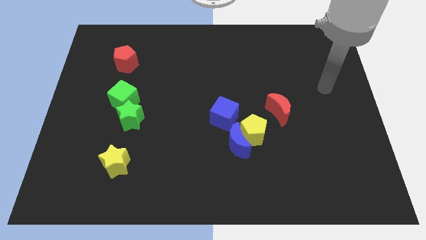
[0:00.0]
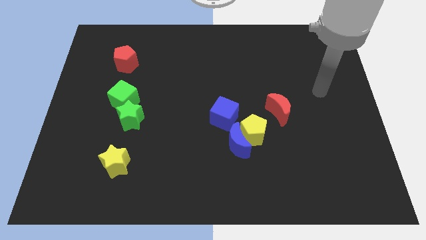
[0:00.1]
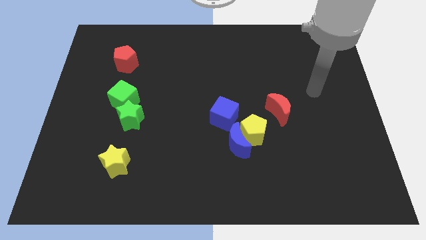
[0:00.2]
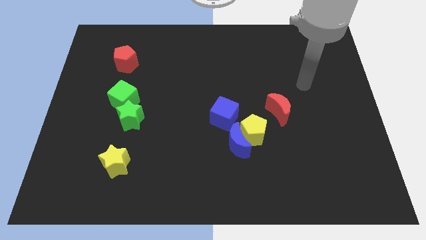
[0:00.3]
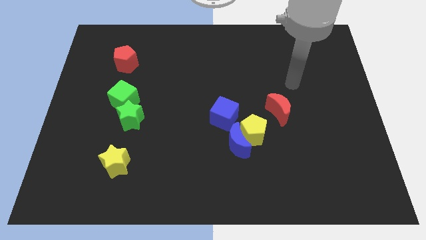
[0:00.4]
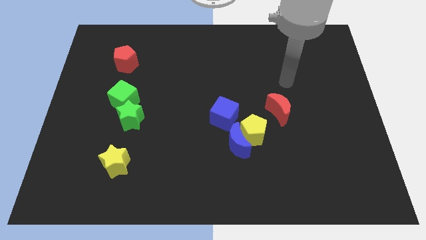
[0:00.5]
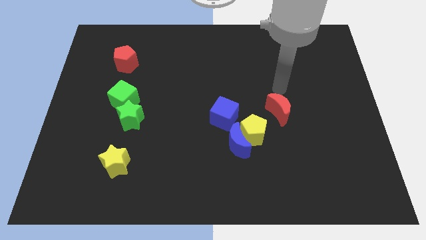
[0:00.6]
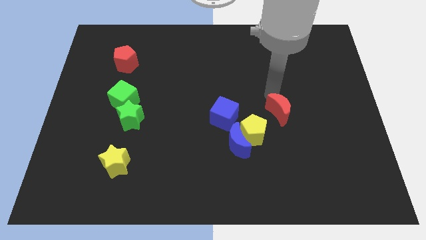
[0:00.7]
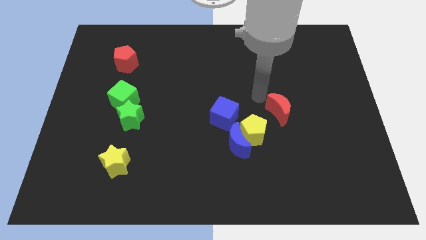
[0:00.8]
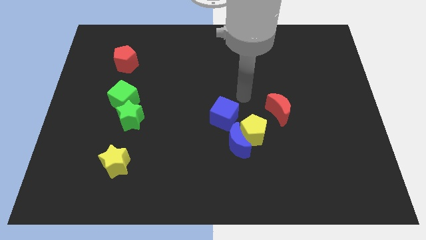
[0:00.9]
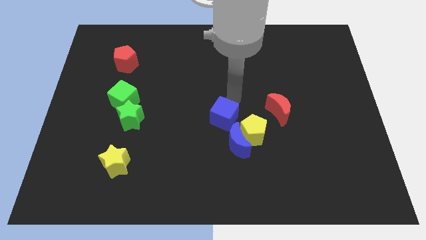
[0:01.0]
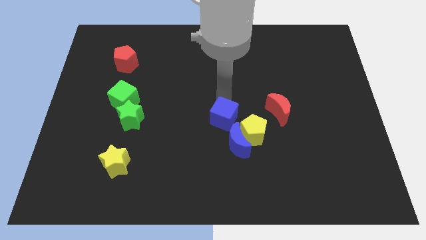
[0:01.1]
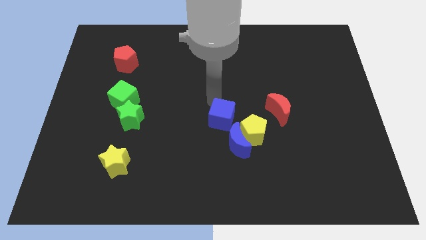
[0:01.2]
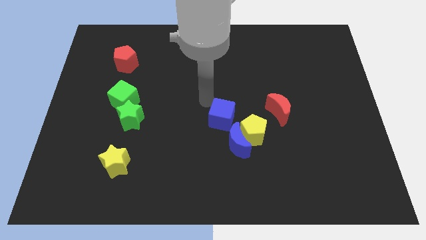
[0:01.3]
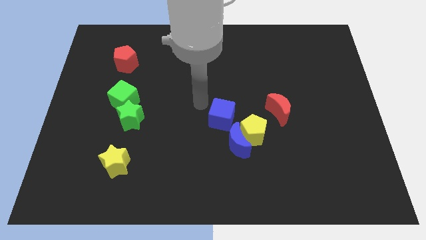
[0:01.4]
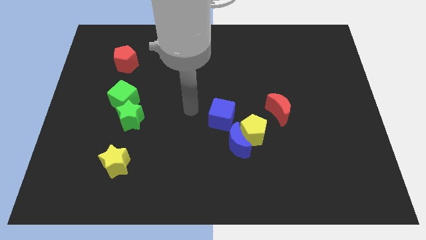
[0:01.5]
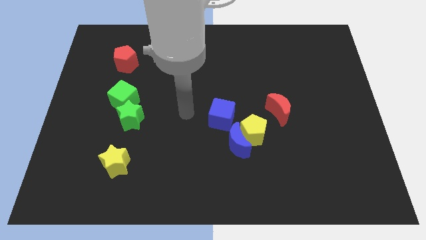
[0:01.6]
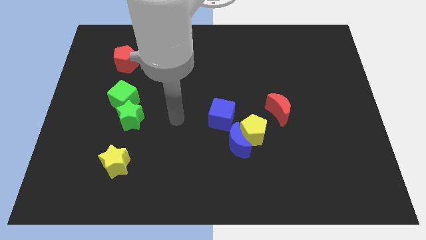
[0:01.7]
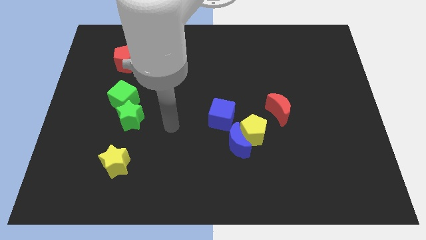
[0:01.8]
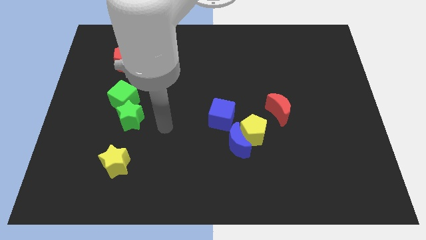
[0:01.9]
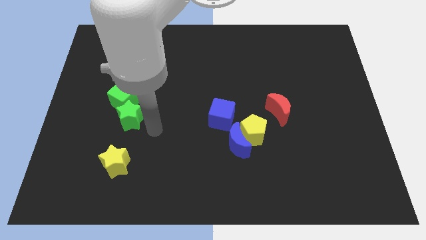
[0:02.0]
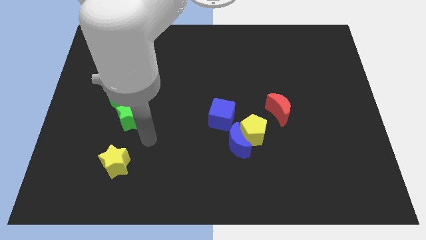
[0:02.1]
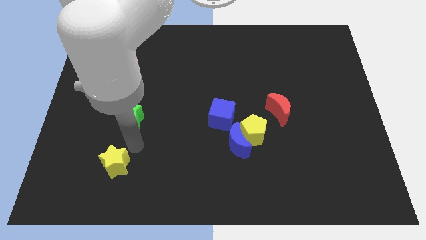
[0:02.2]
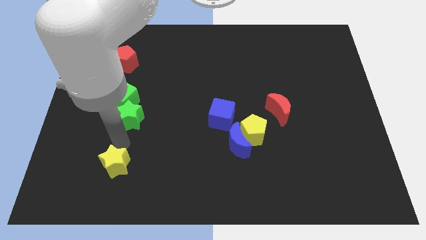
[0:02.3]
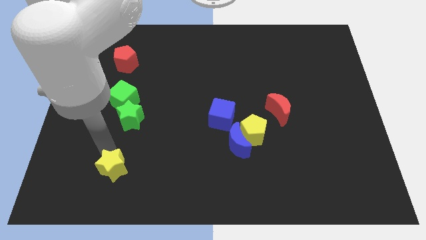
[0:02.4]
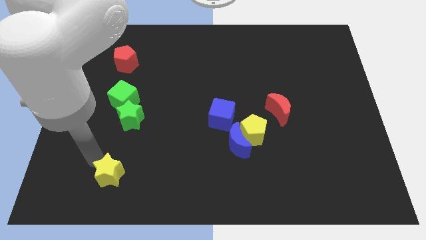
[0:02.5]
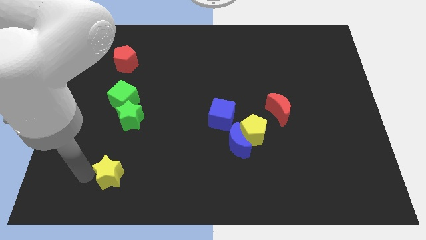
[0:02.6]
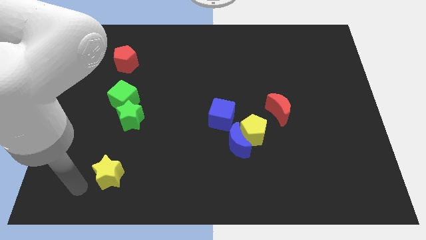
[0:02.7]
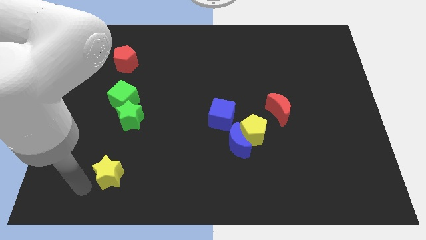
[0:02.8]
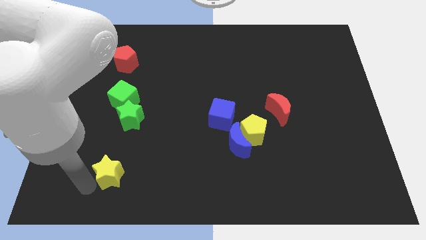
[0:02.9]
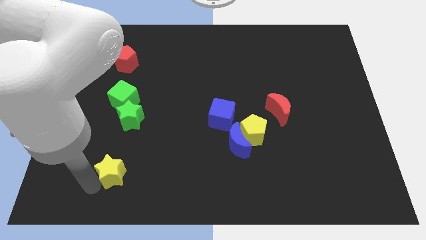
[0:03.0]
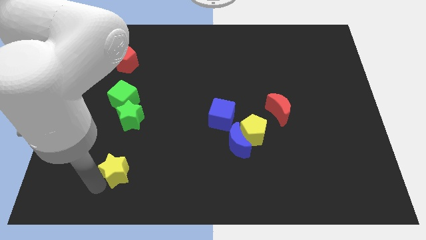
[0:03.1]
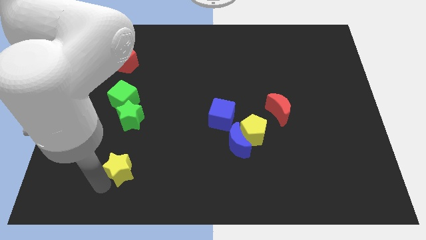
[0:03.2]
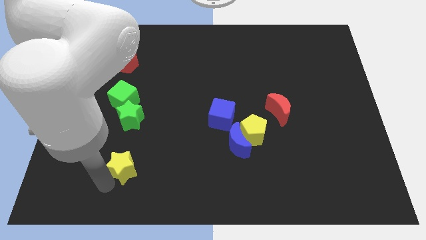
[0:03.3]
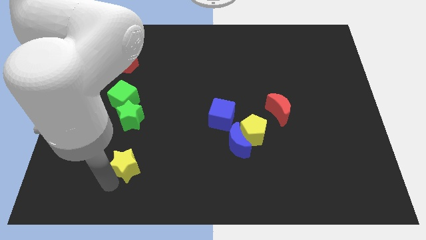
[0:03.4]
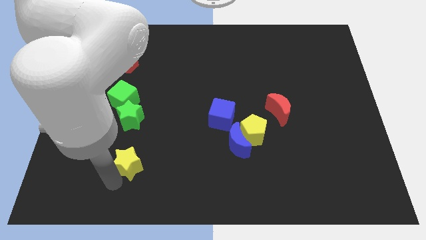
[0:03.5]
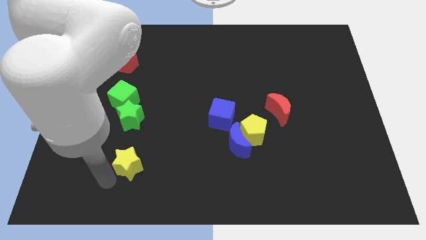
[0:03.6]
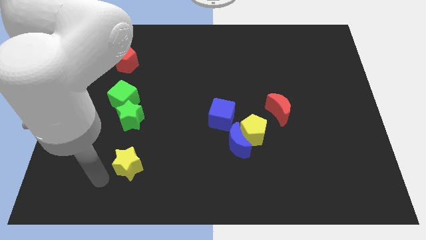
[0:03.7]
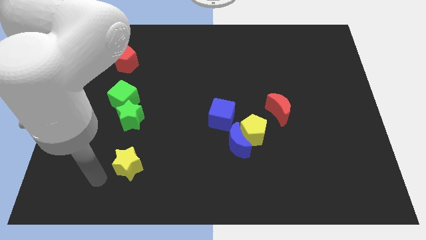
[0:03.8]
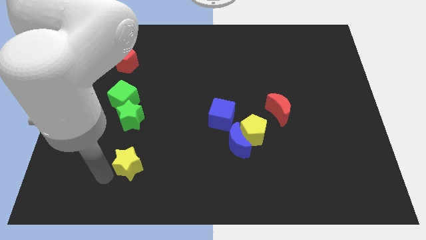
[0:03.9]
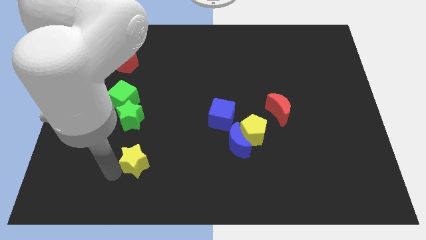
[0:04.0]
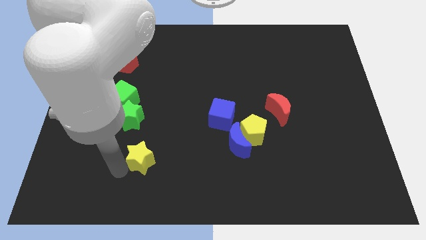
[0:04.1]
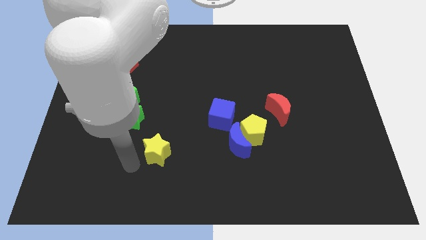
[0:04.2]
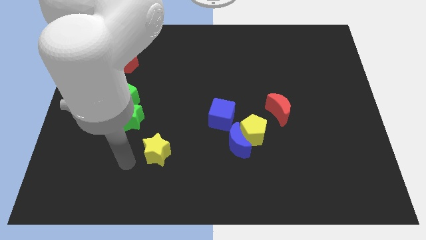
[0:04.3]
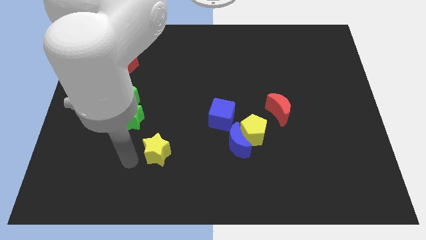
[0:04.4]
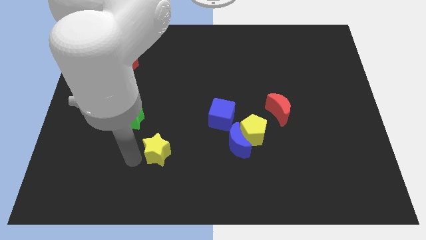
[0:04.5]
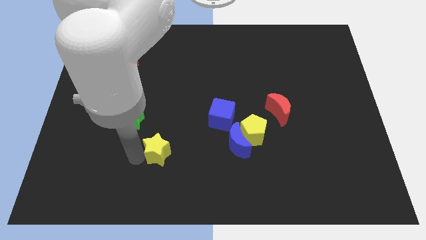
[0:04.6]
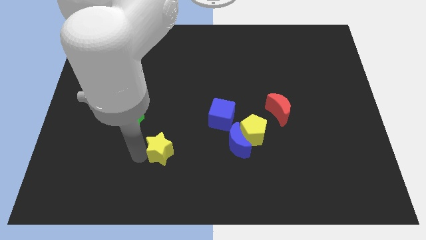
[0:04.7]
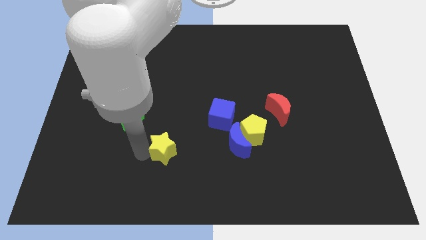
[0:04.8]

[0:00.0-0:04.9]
put the yellow star left of the blue moon

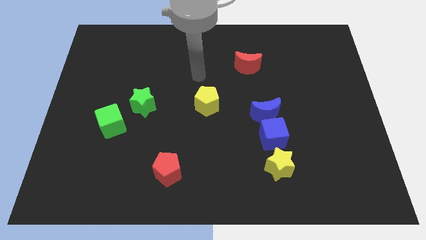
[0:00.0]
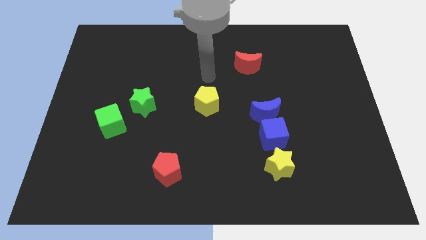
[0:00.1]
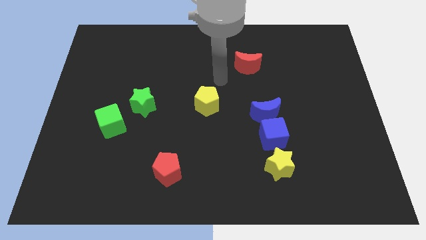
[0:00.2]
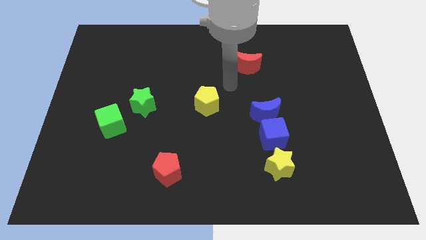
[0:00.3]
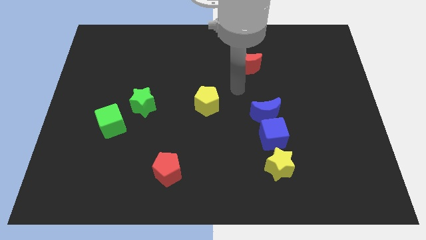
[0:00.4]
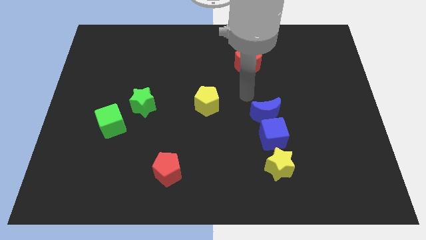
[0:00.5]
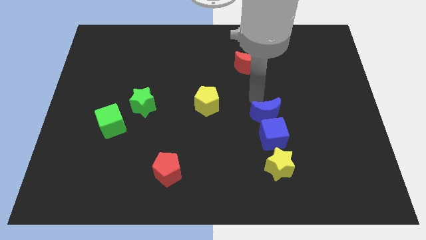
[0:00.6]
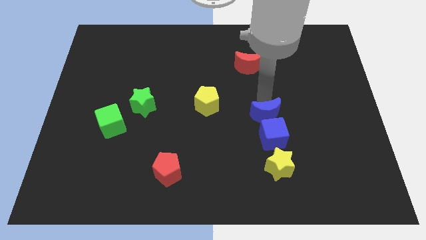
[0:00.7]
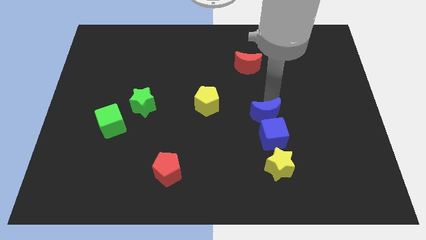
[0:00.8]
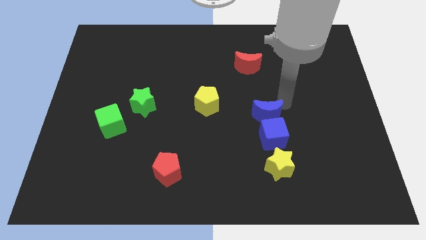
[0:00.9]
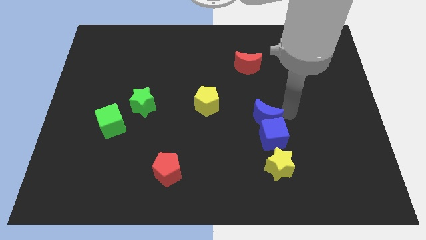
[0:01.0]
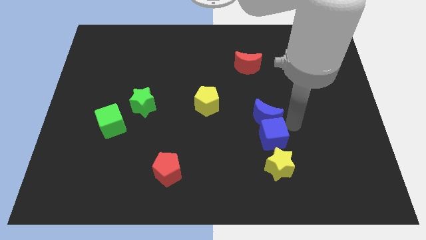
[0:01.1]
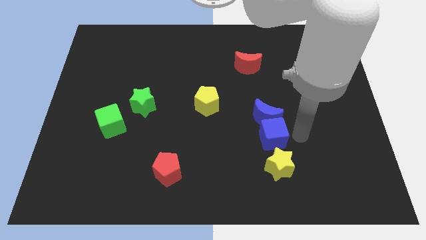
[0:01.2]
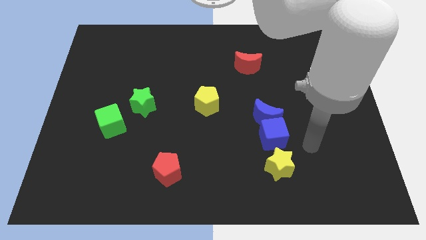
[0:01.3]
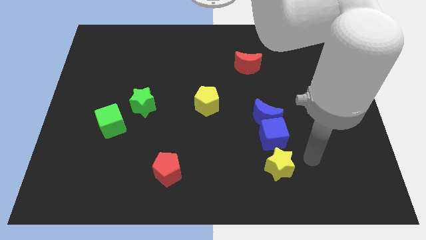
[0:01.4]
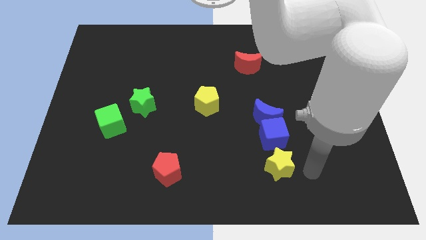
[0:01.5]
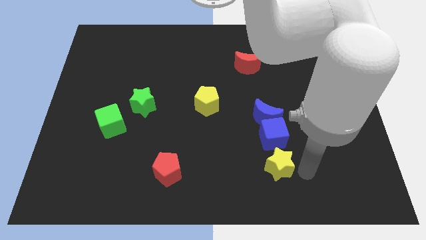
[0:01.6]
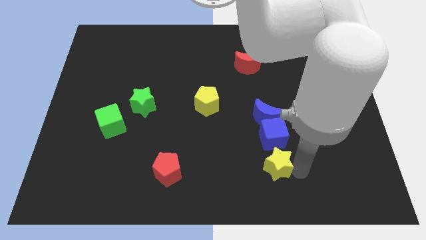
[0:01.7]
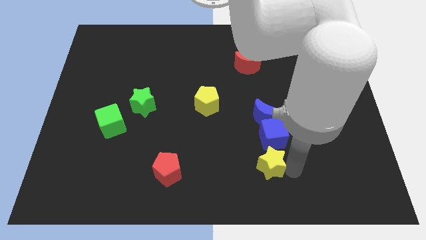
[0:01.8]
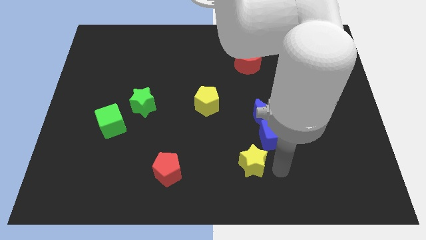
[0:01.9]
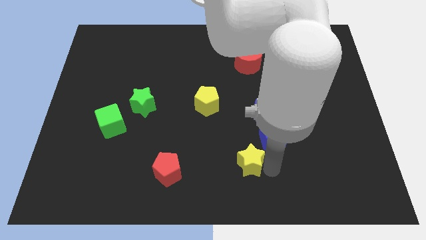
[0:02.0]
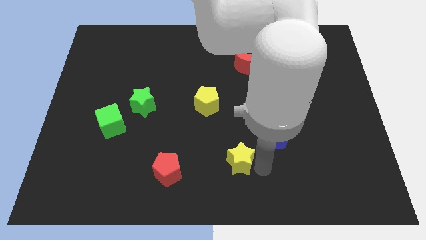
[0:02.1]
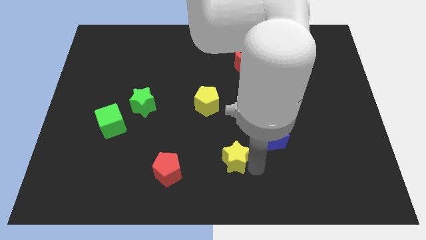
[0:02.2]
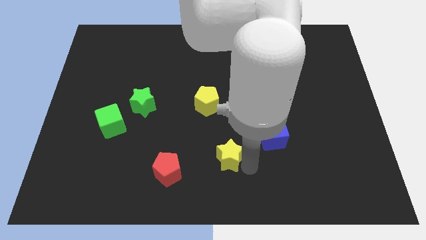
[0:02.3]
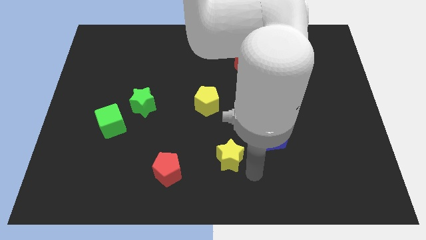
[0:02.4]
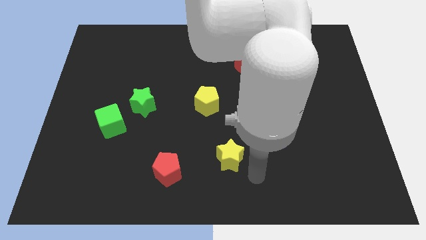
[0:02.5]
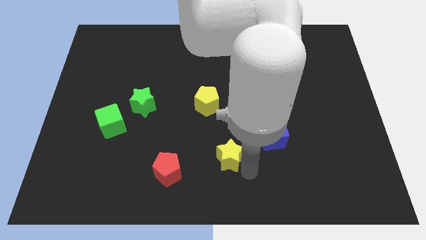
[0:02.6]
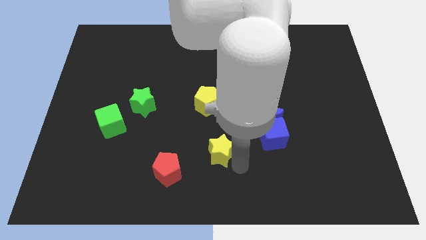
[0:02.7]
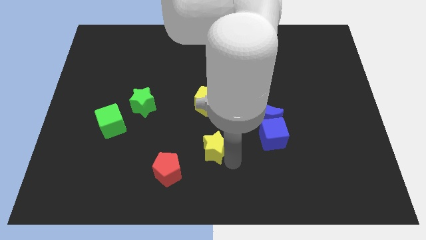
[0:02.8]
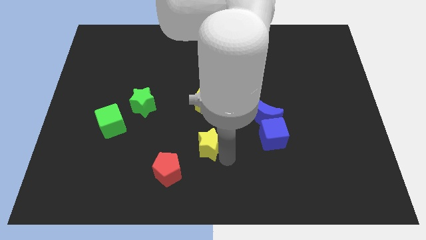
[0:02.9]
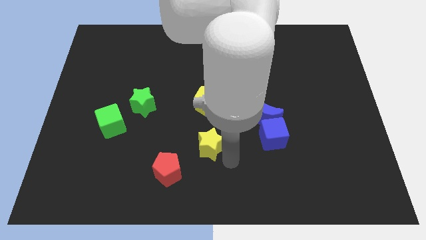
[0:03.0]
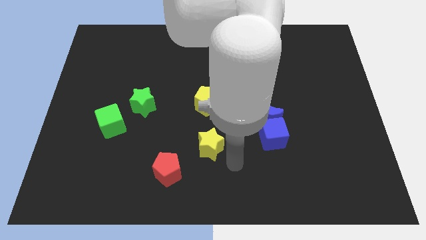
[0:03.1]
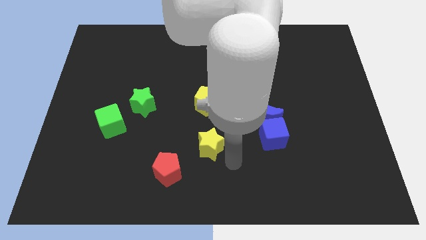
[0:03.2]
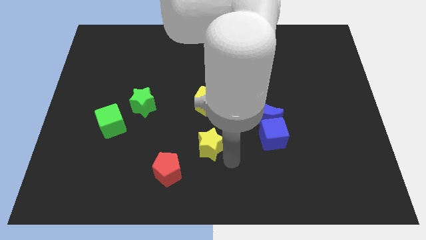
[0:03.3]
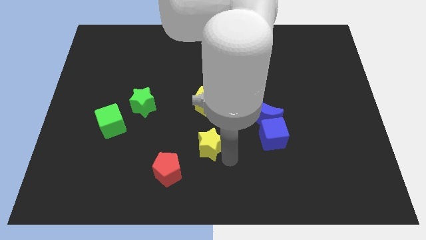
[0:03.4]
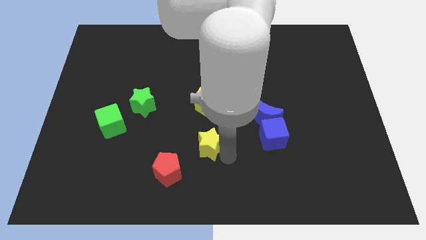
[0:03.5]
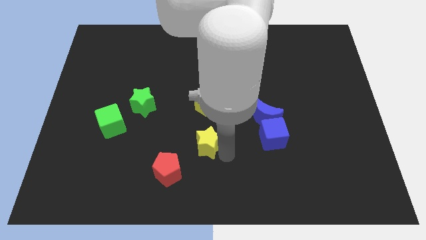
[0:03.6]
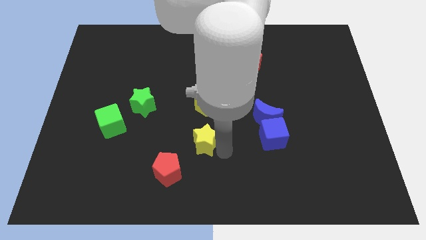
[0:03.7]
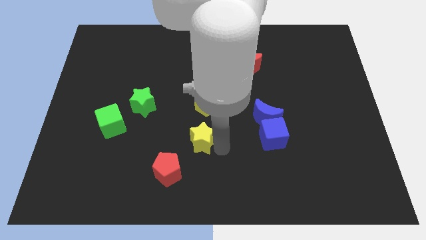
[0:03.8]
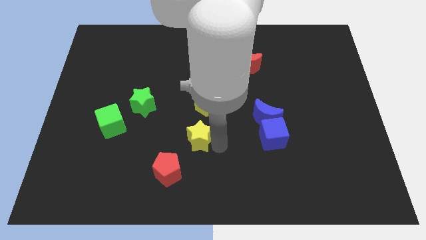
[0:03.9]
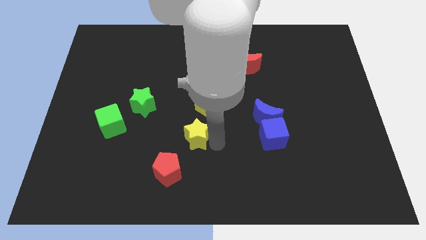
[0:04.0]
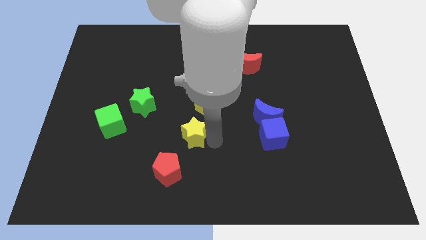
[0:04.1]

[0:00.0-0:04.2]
push the yellow star above the red pentagon
